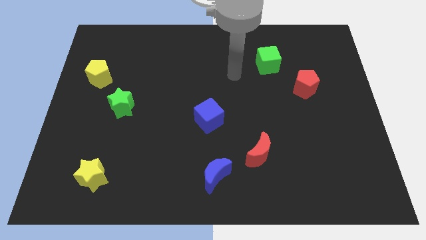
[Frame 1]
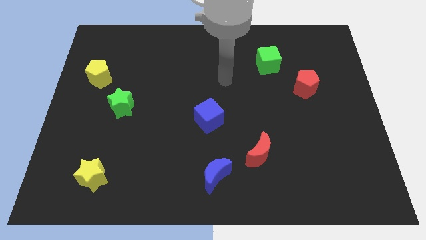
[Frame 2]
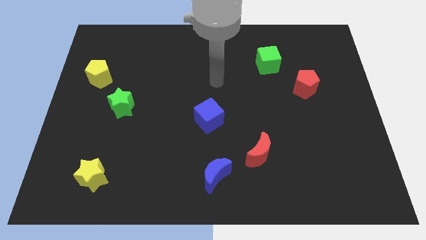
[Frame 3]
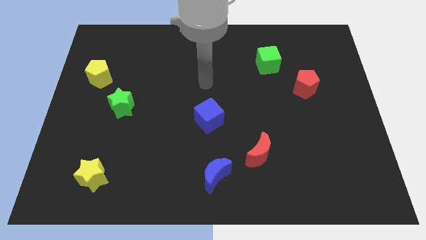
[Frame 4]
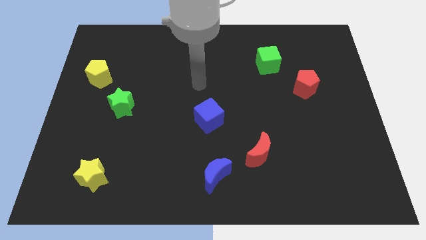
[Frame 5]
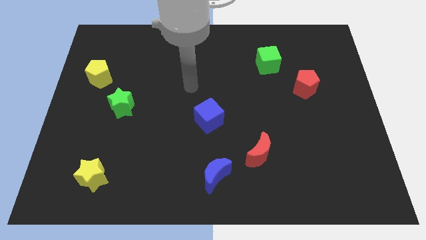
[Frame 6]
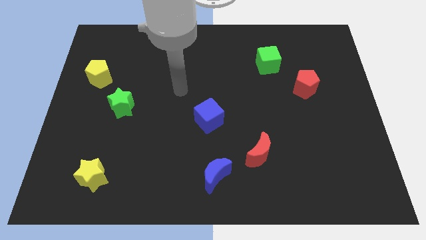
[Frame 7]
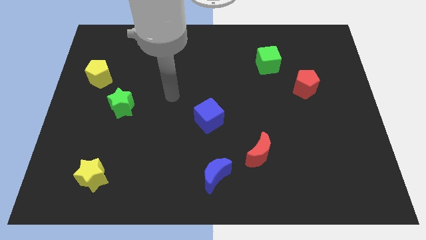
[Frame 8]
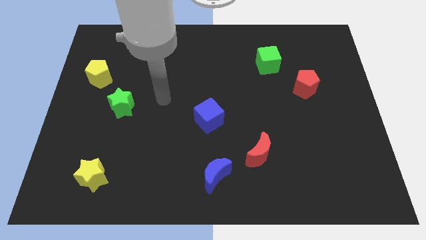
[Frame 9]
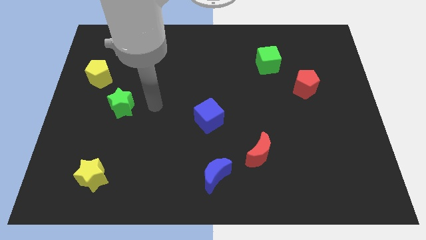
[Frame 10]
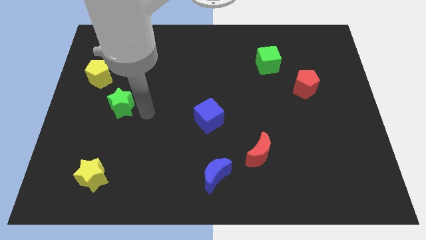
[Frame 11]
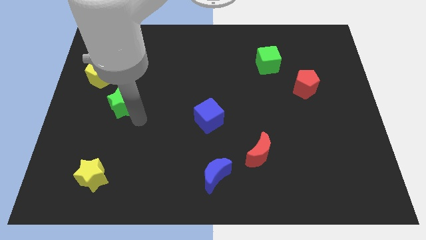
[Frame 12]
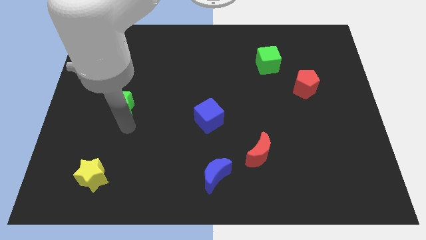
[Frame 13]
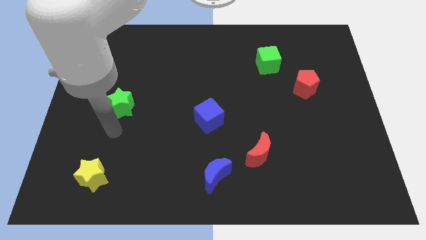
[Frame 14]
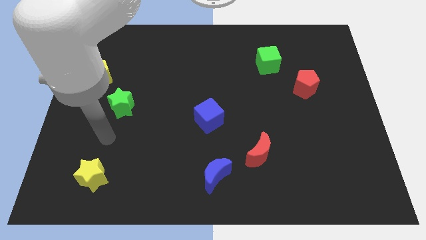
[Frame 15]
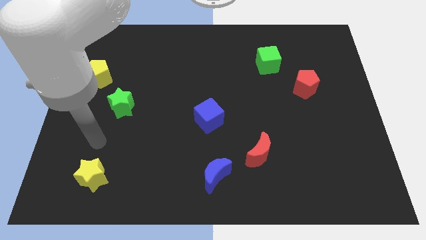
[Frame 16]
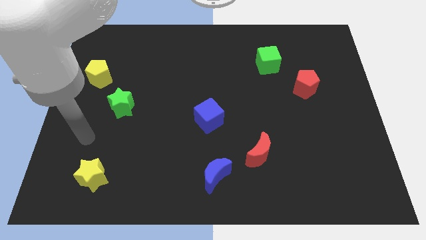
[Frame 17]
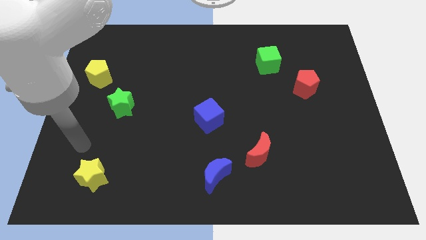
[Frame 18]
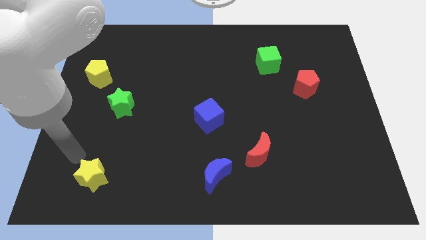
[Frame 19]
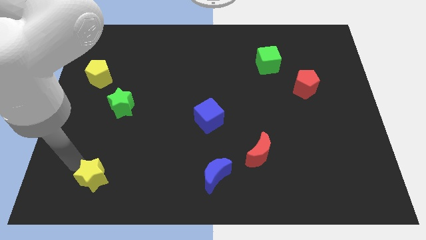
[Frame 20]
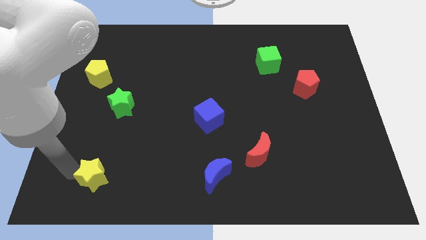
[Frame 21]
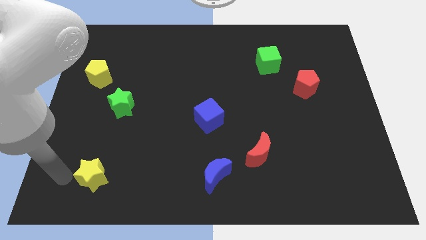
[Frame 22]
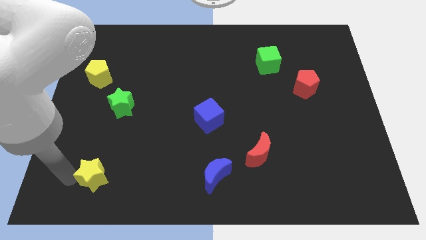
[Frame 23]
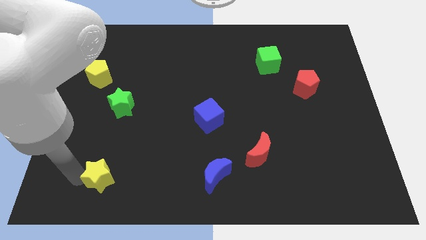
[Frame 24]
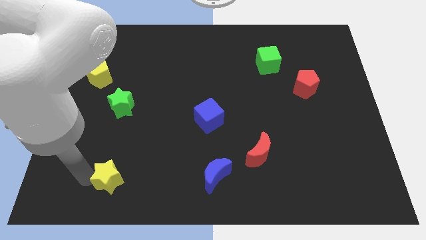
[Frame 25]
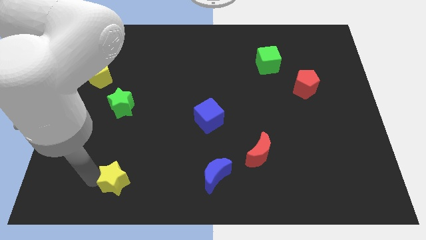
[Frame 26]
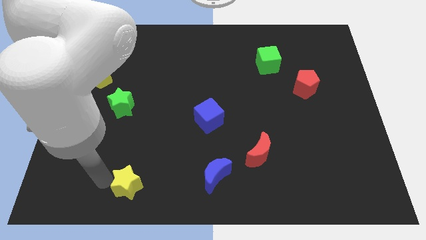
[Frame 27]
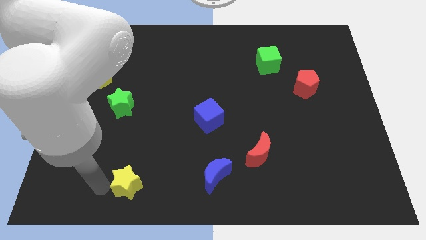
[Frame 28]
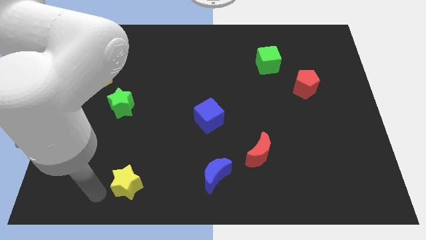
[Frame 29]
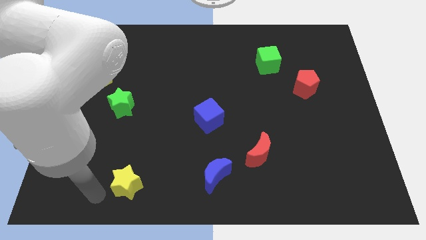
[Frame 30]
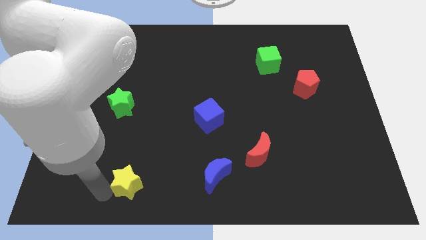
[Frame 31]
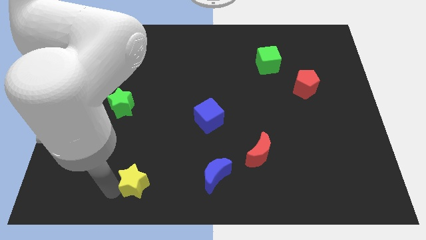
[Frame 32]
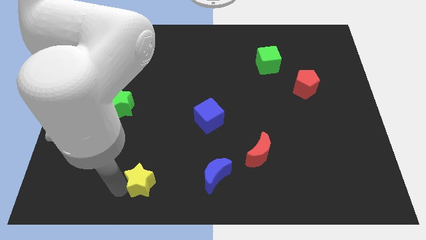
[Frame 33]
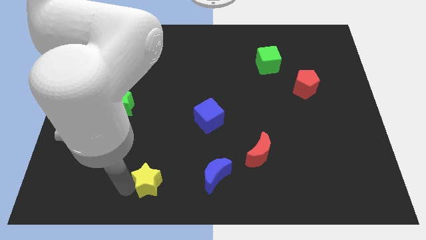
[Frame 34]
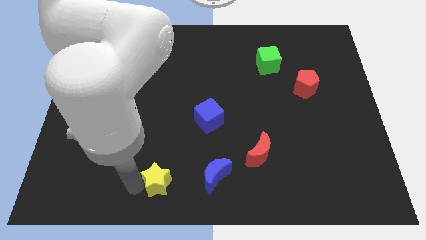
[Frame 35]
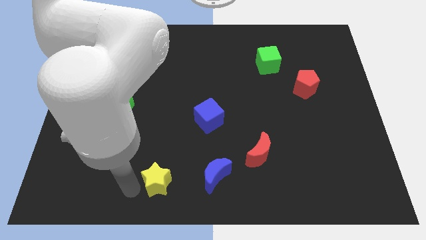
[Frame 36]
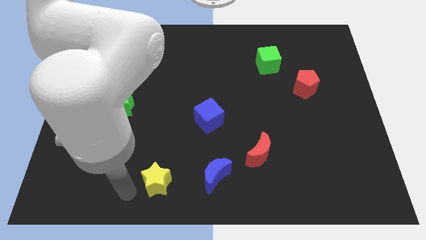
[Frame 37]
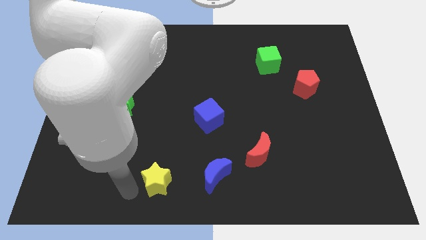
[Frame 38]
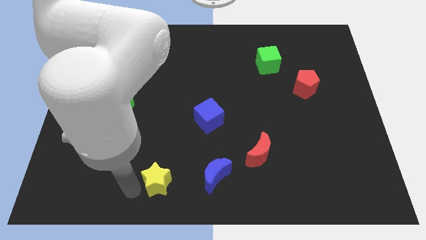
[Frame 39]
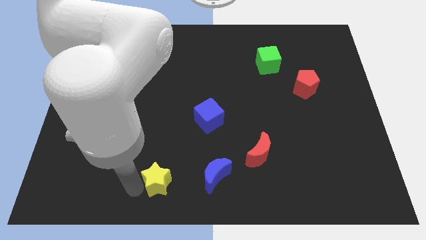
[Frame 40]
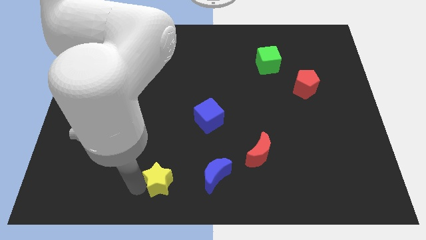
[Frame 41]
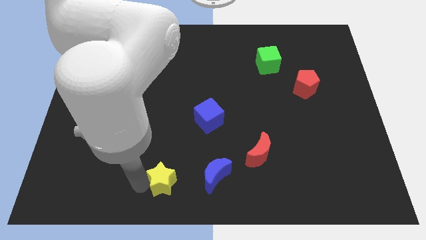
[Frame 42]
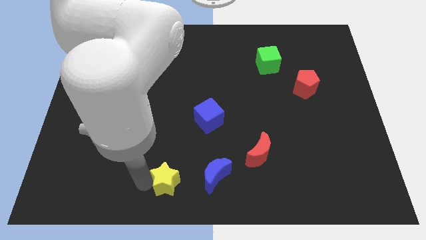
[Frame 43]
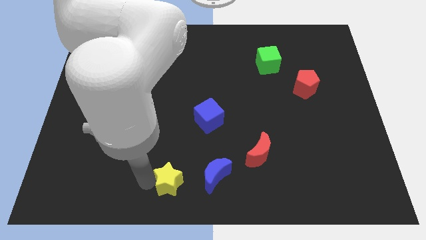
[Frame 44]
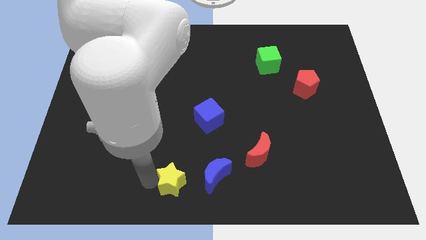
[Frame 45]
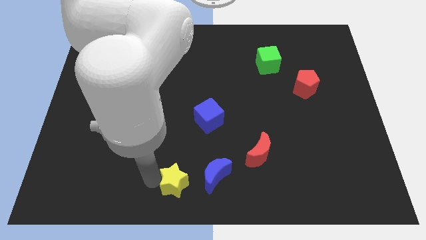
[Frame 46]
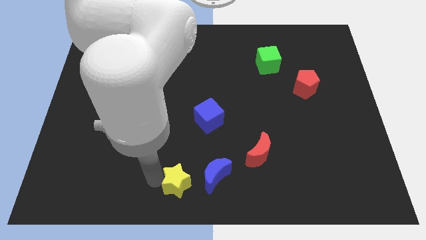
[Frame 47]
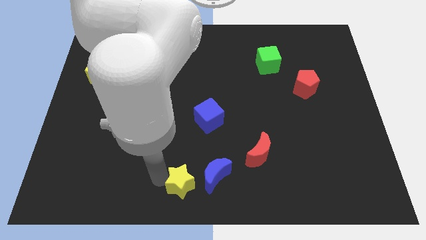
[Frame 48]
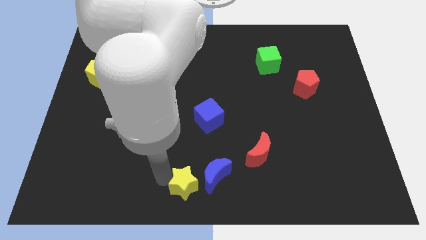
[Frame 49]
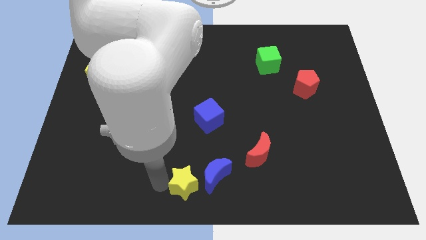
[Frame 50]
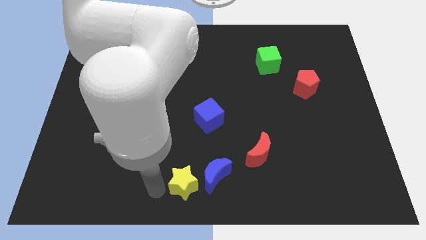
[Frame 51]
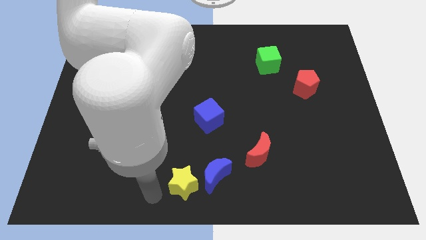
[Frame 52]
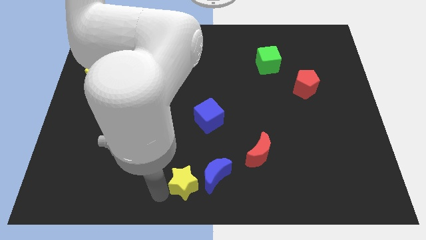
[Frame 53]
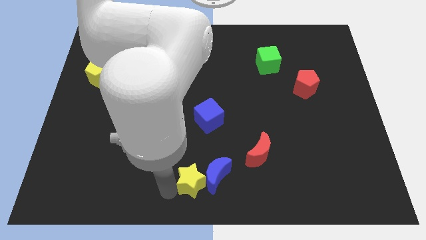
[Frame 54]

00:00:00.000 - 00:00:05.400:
move the yellow star close to the blue moon

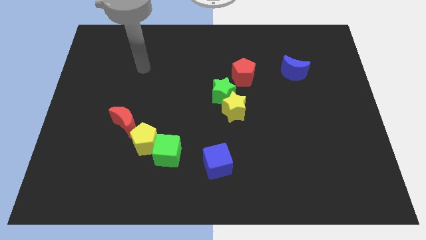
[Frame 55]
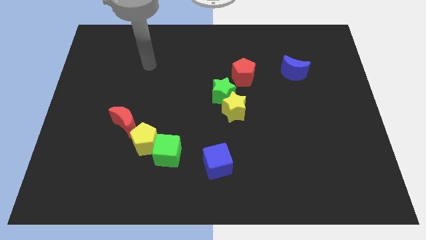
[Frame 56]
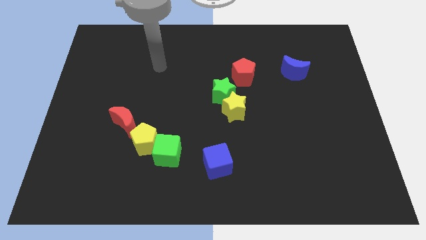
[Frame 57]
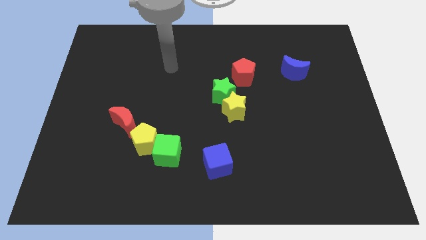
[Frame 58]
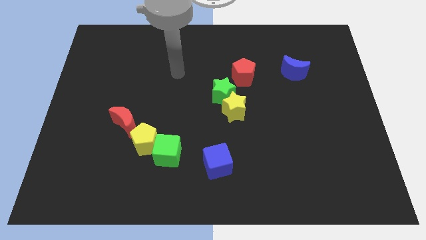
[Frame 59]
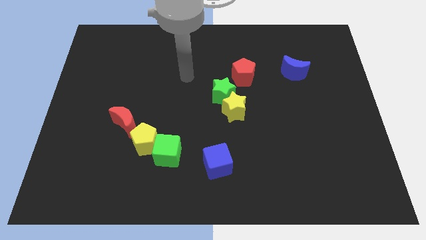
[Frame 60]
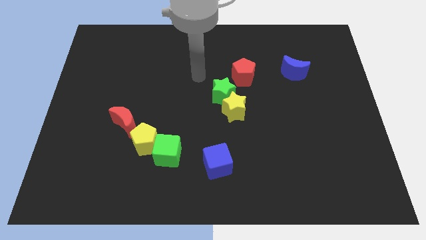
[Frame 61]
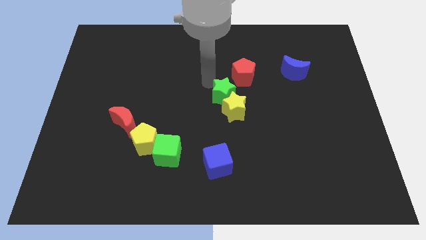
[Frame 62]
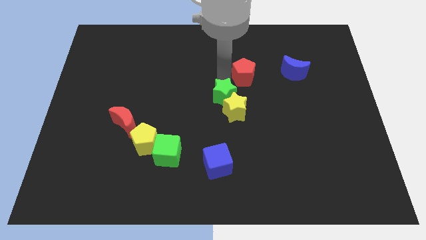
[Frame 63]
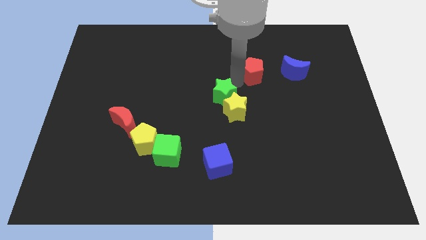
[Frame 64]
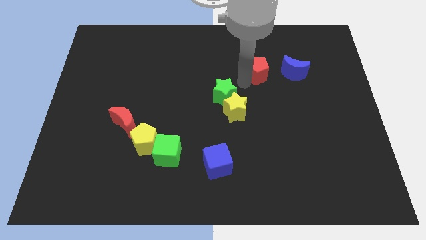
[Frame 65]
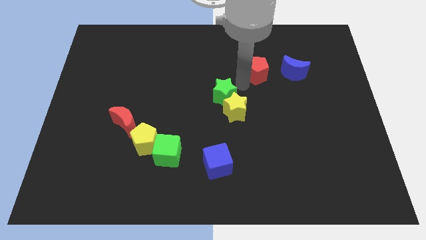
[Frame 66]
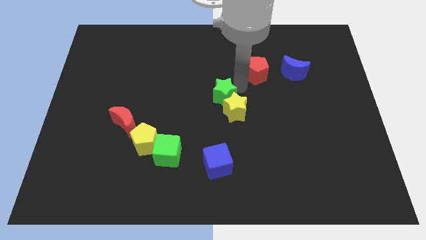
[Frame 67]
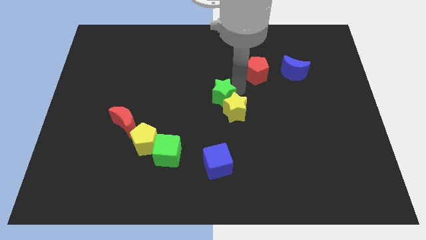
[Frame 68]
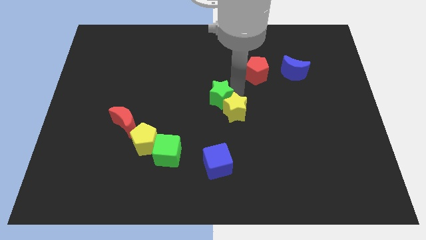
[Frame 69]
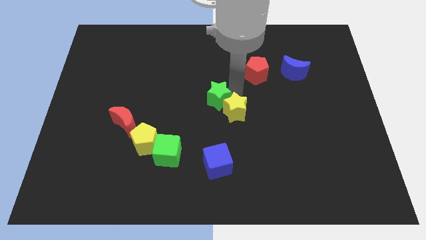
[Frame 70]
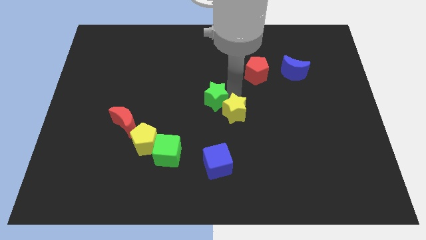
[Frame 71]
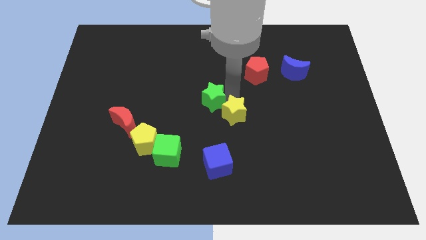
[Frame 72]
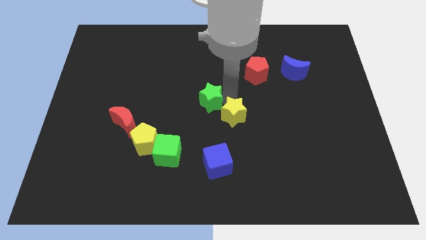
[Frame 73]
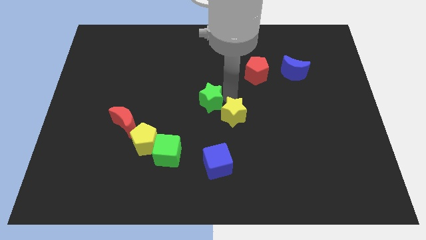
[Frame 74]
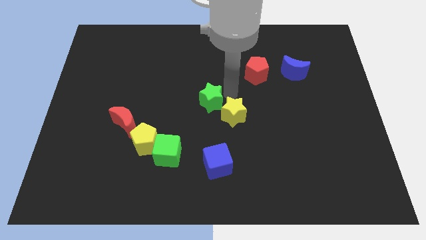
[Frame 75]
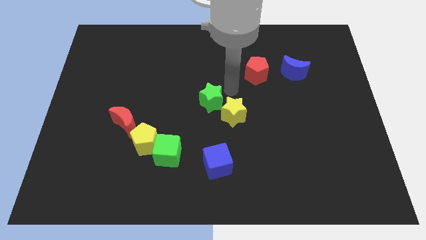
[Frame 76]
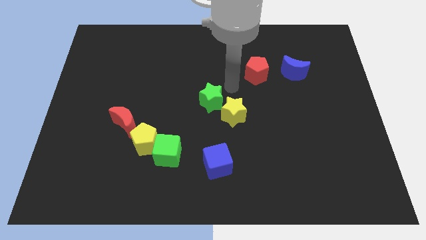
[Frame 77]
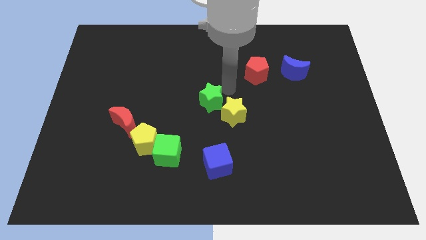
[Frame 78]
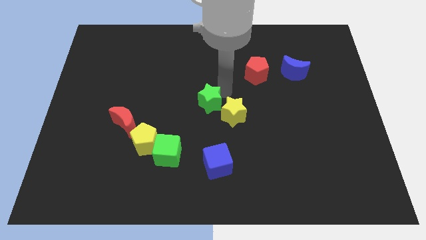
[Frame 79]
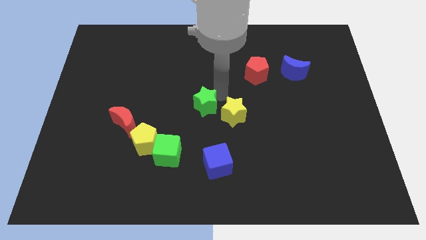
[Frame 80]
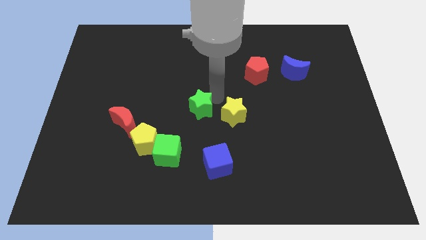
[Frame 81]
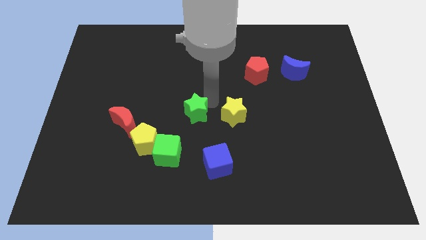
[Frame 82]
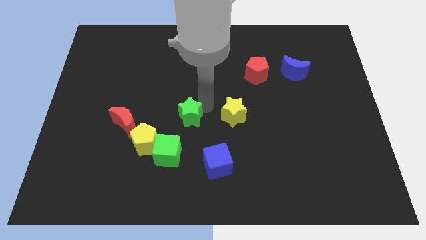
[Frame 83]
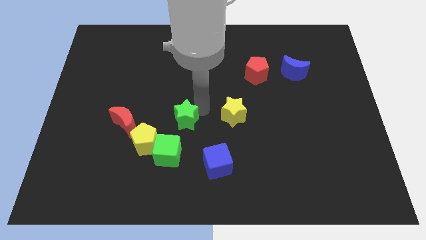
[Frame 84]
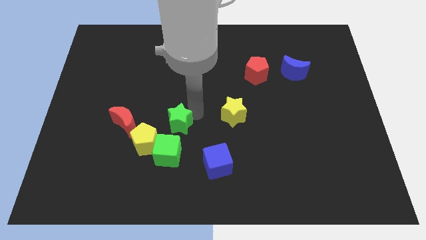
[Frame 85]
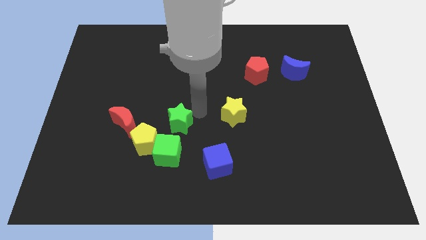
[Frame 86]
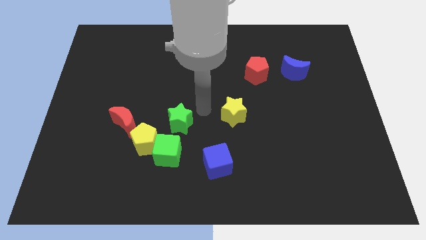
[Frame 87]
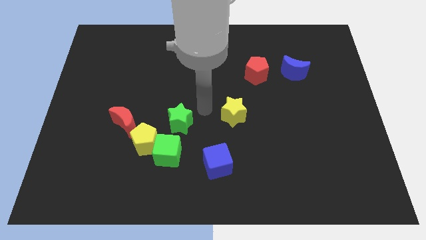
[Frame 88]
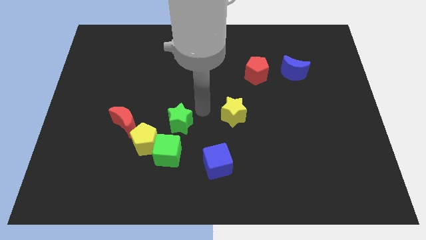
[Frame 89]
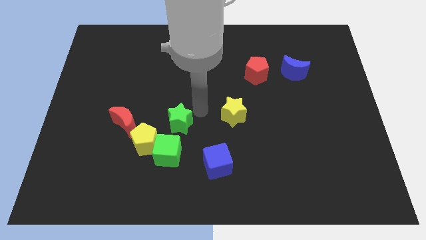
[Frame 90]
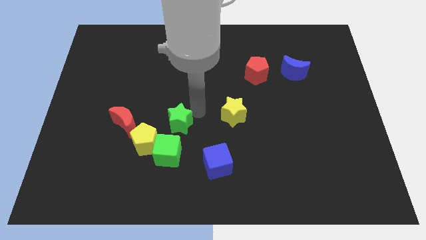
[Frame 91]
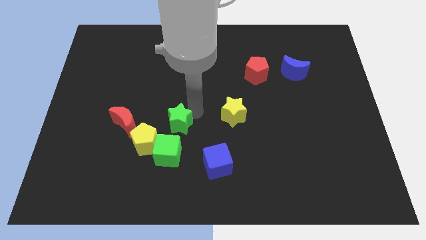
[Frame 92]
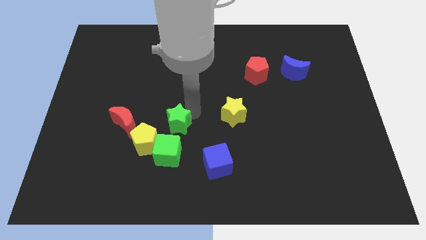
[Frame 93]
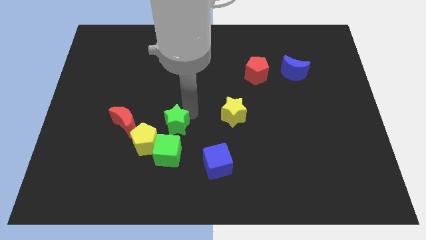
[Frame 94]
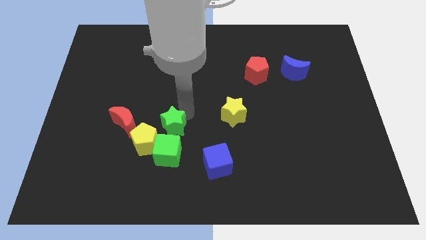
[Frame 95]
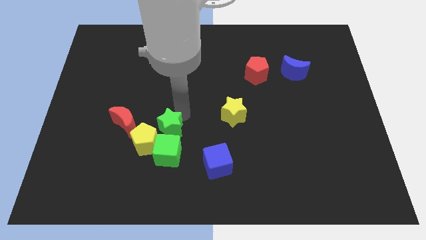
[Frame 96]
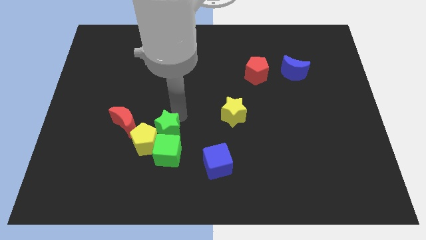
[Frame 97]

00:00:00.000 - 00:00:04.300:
put the green star next to the yellow pentagon
